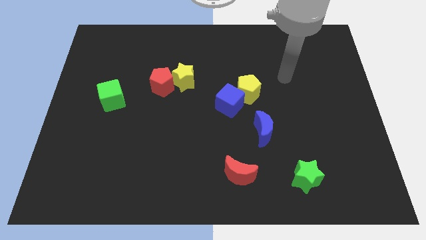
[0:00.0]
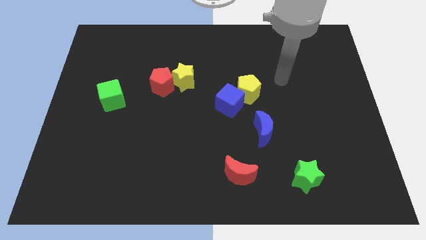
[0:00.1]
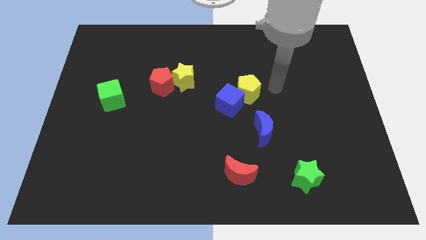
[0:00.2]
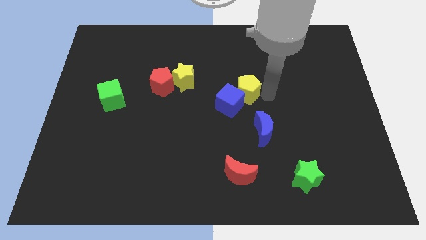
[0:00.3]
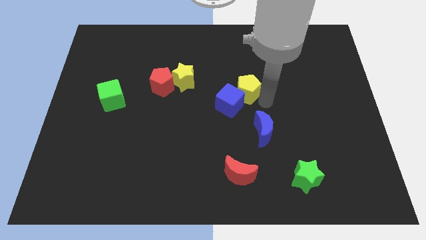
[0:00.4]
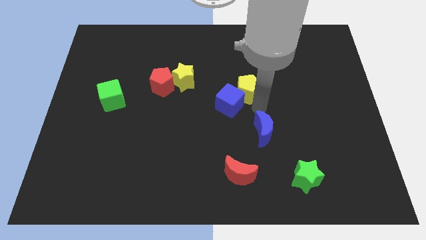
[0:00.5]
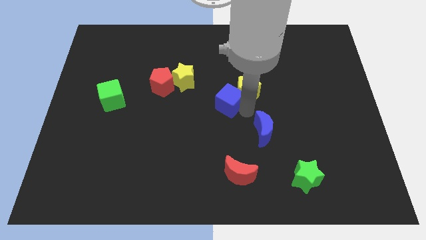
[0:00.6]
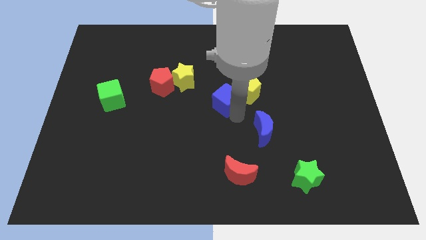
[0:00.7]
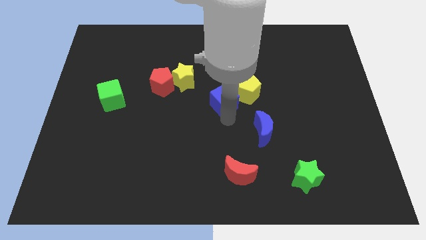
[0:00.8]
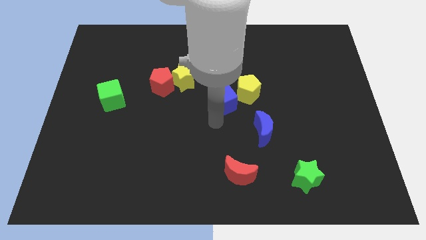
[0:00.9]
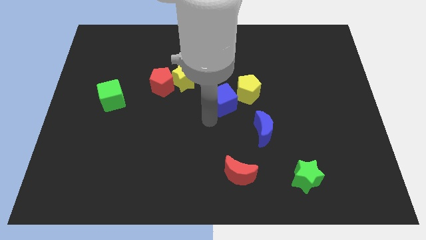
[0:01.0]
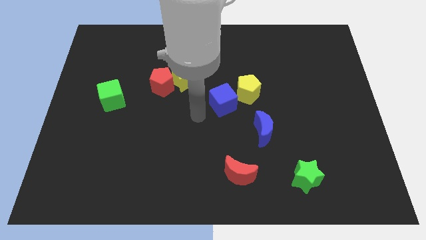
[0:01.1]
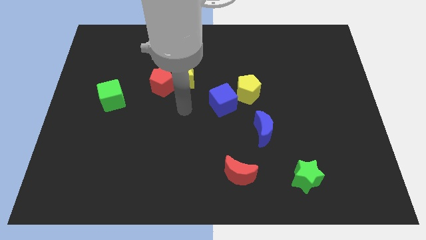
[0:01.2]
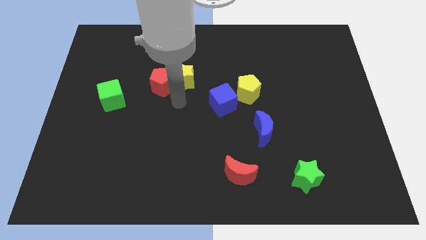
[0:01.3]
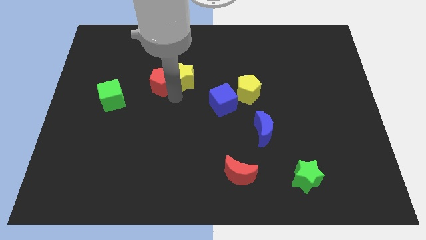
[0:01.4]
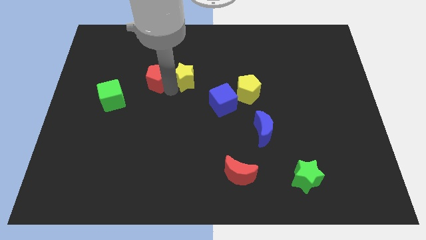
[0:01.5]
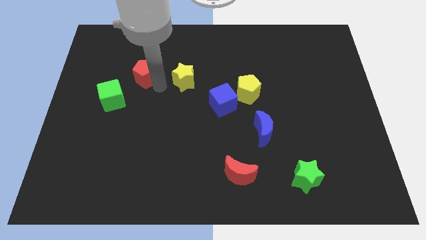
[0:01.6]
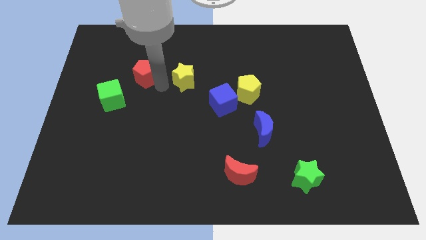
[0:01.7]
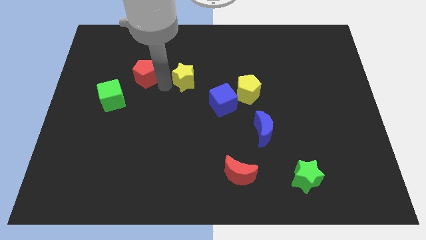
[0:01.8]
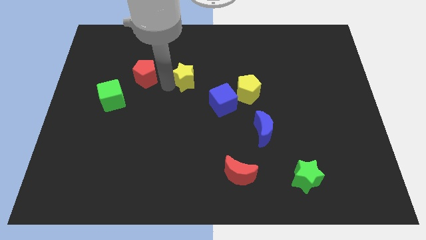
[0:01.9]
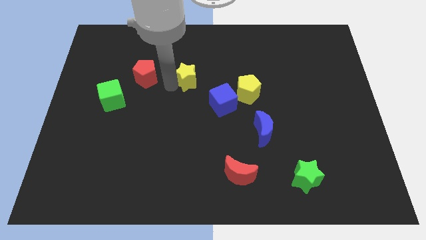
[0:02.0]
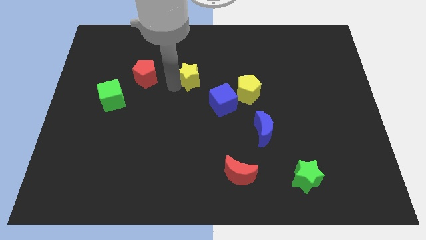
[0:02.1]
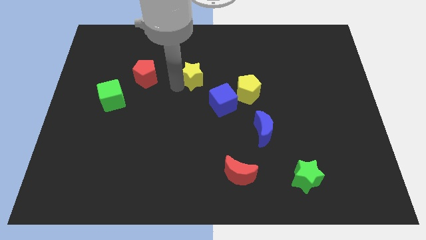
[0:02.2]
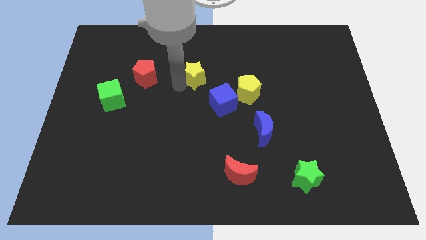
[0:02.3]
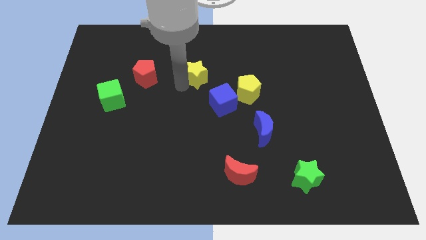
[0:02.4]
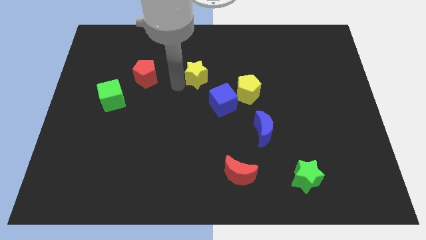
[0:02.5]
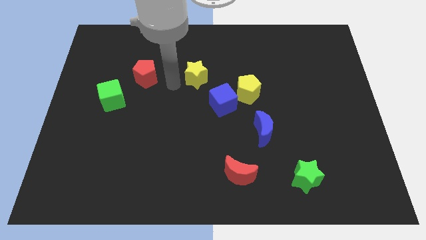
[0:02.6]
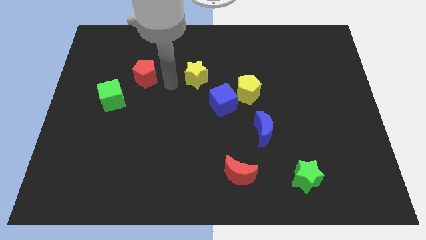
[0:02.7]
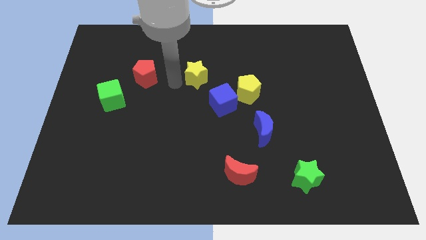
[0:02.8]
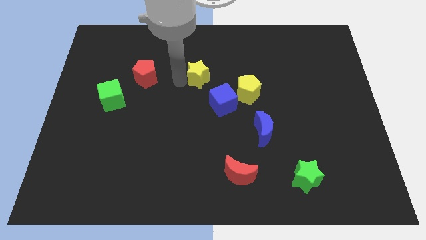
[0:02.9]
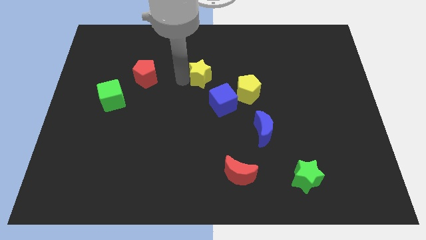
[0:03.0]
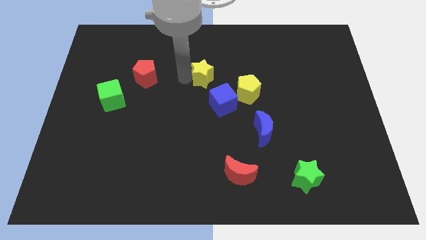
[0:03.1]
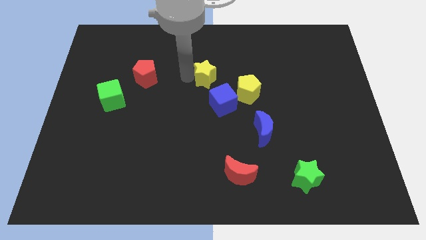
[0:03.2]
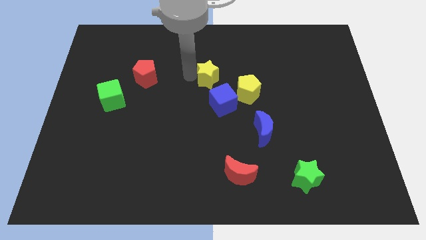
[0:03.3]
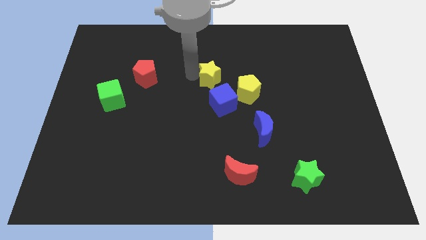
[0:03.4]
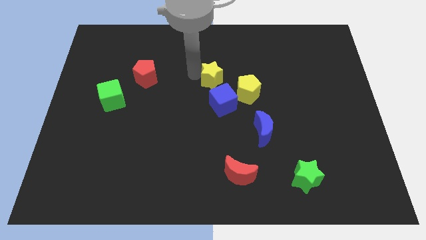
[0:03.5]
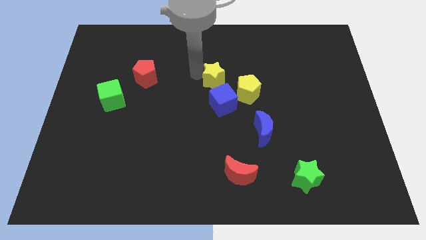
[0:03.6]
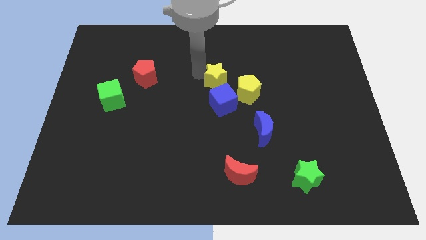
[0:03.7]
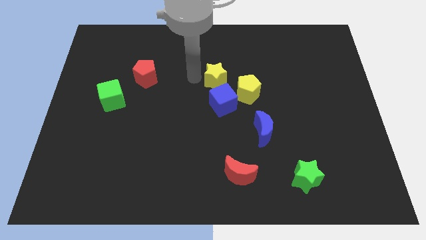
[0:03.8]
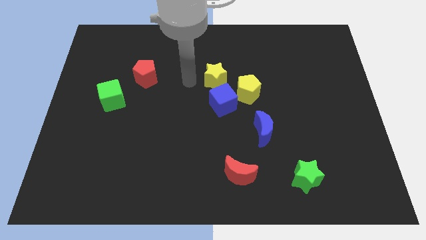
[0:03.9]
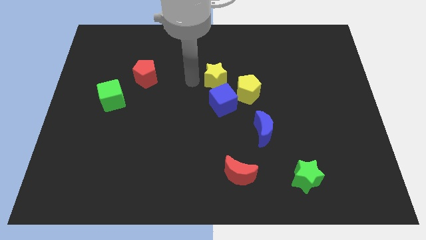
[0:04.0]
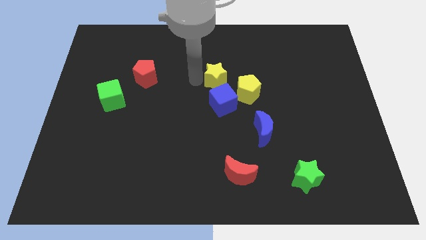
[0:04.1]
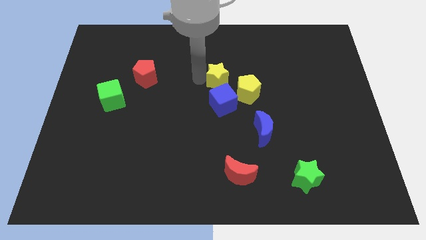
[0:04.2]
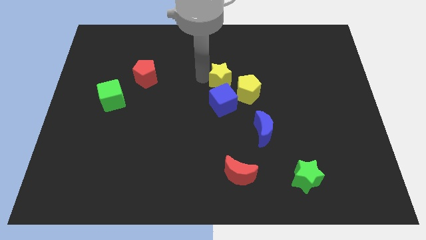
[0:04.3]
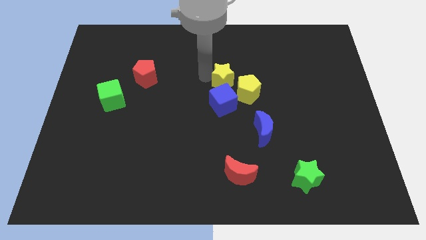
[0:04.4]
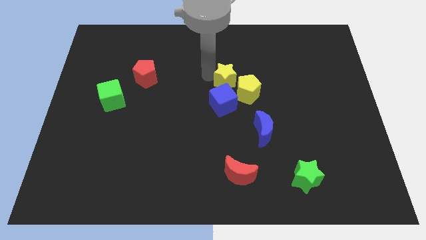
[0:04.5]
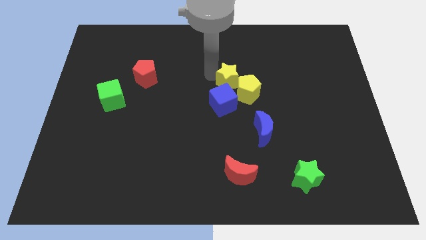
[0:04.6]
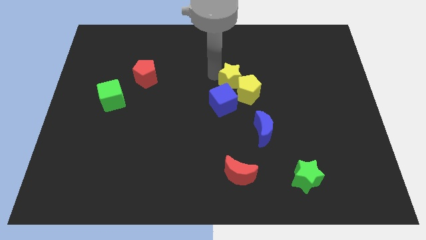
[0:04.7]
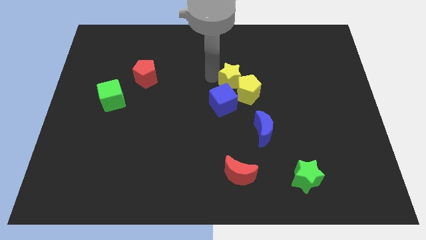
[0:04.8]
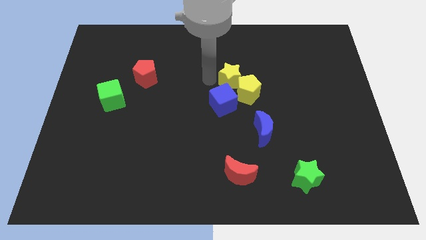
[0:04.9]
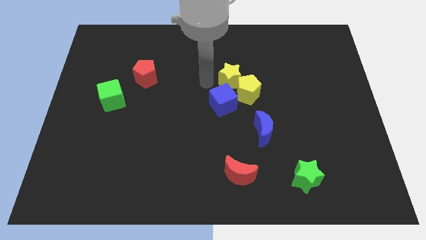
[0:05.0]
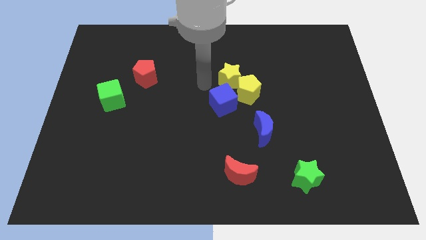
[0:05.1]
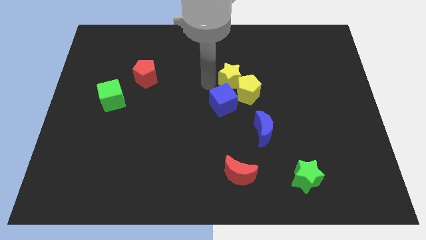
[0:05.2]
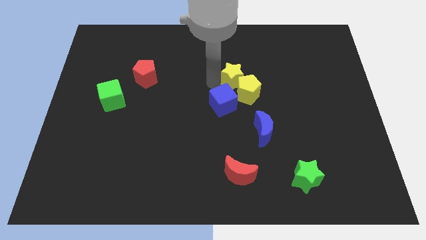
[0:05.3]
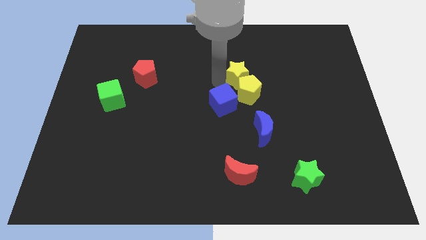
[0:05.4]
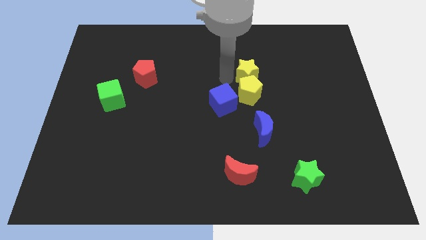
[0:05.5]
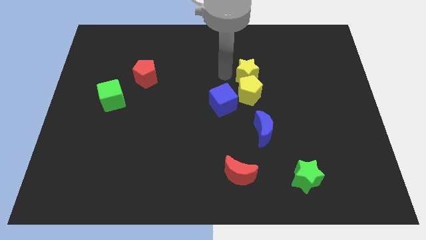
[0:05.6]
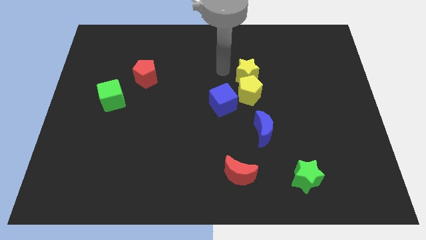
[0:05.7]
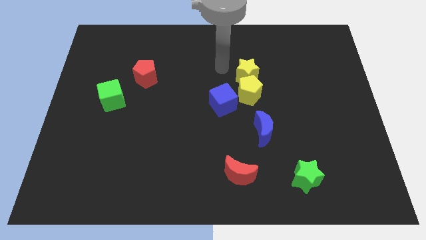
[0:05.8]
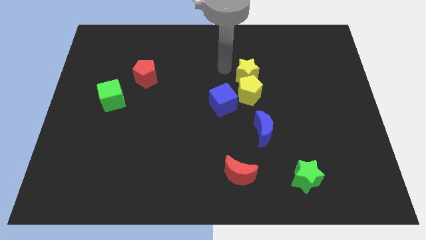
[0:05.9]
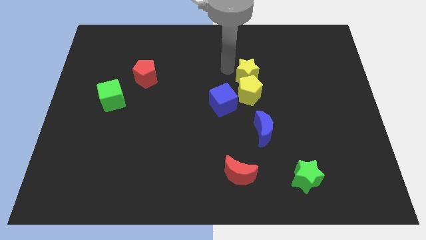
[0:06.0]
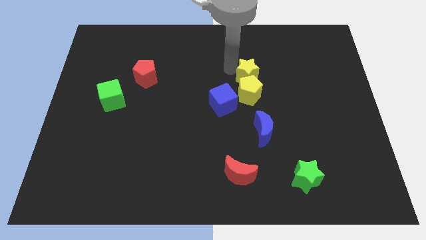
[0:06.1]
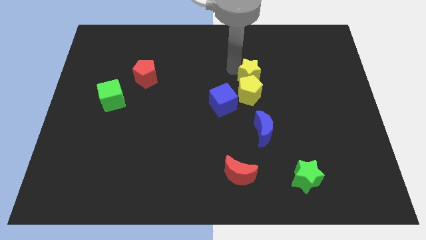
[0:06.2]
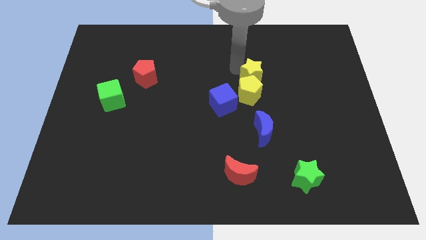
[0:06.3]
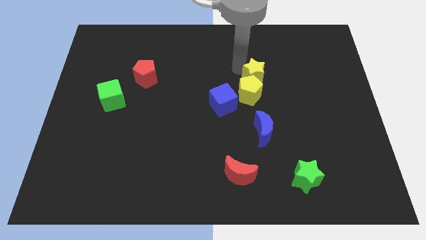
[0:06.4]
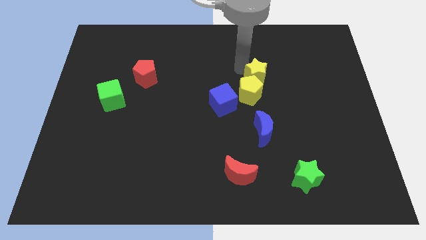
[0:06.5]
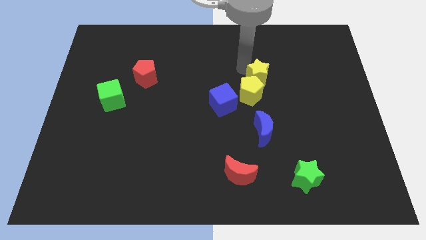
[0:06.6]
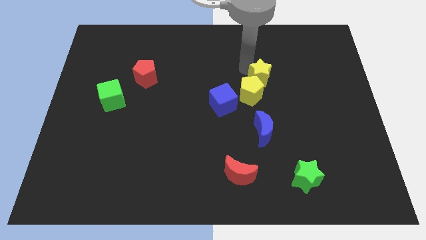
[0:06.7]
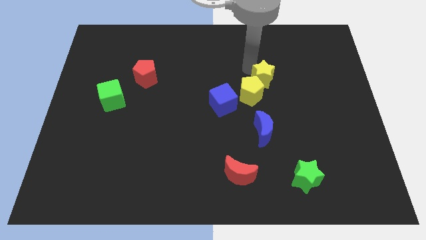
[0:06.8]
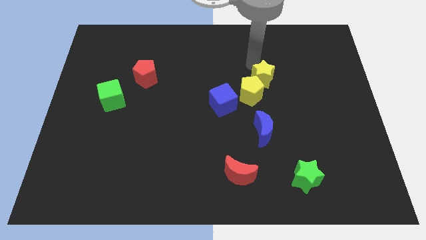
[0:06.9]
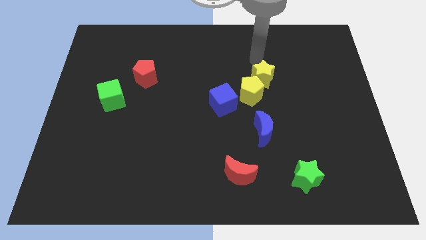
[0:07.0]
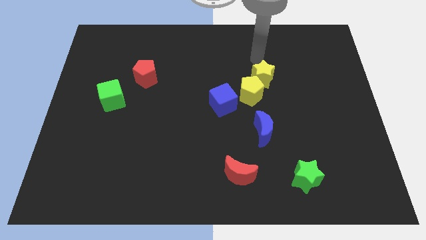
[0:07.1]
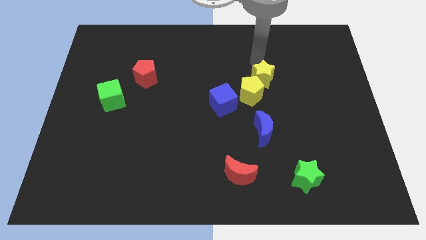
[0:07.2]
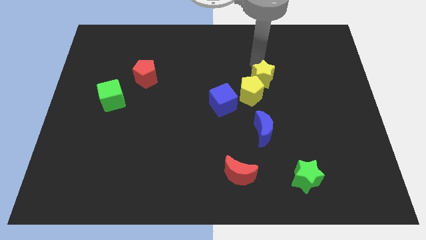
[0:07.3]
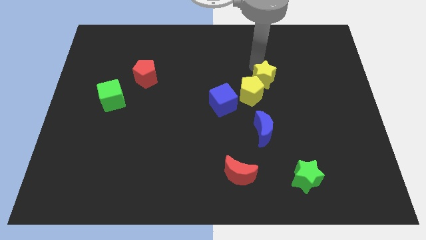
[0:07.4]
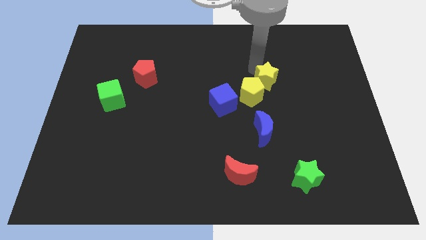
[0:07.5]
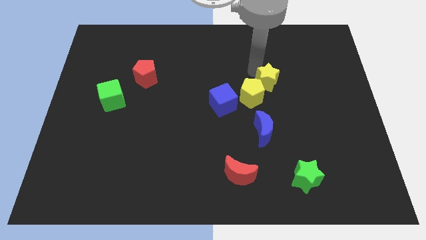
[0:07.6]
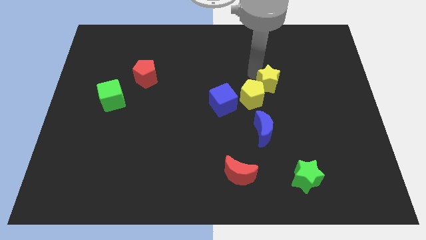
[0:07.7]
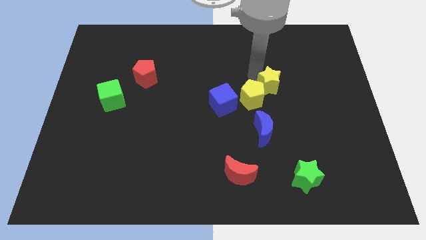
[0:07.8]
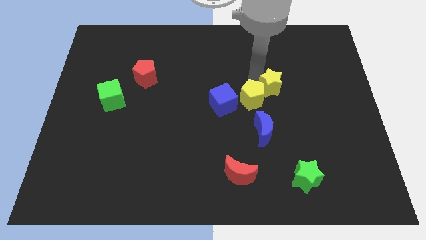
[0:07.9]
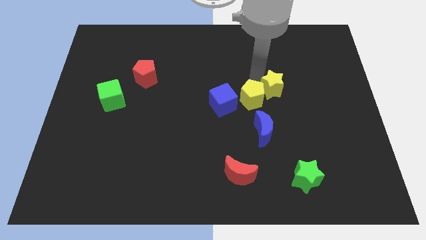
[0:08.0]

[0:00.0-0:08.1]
move the yellow star just right of the blue cube
